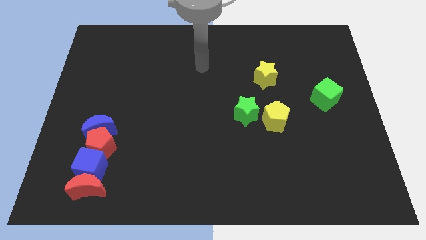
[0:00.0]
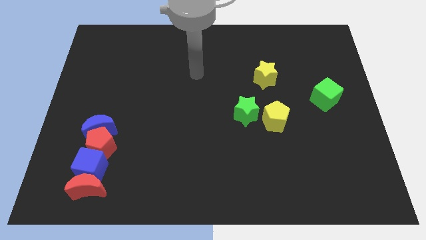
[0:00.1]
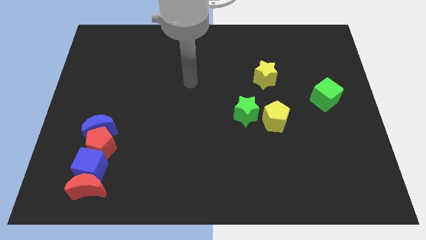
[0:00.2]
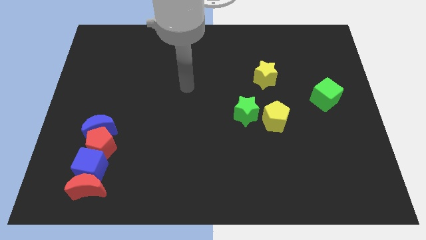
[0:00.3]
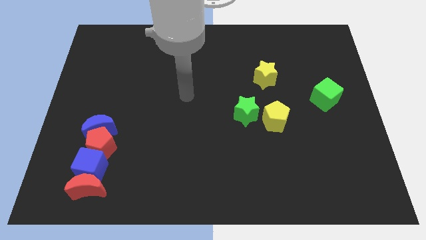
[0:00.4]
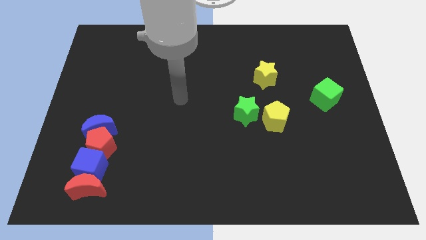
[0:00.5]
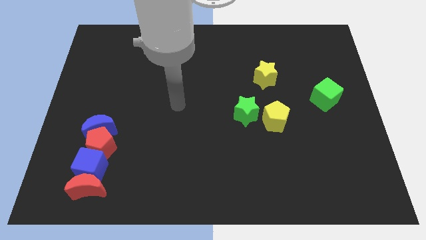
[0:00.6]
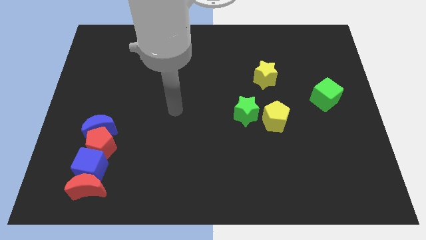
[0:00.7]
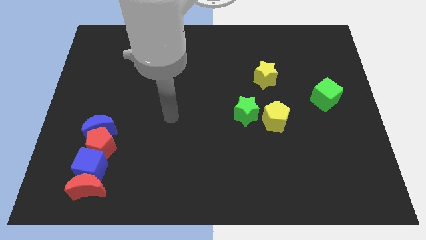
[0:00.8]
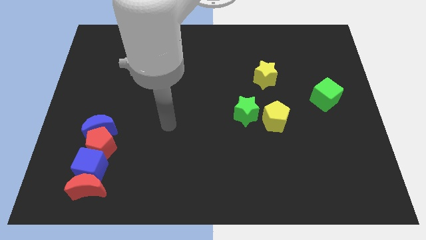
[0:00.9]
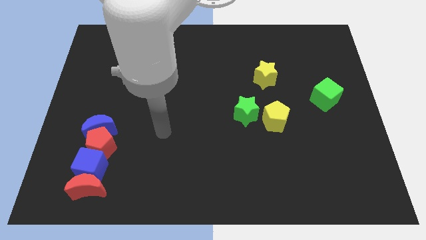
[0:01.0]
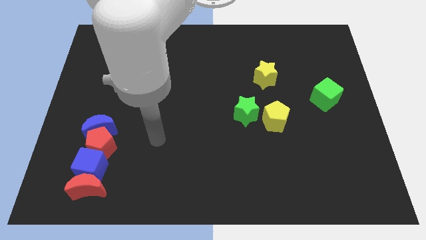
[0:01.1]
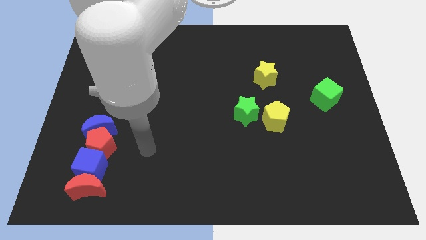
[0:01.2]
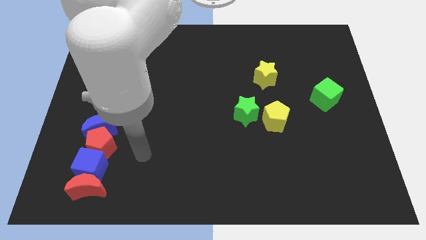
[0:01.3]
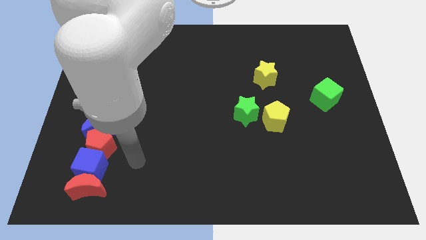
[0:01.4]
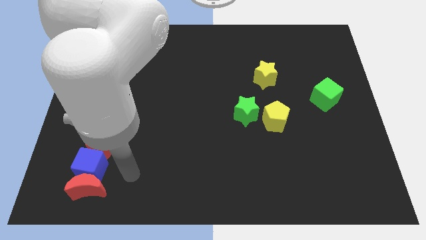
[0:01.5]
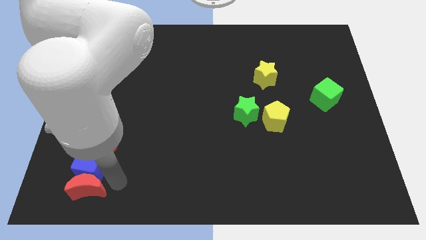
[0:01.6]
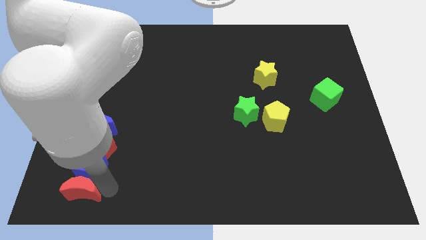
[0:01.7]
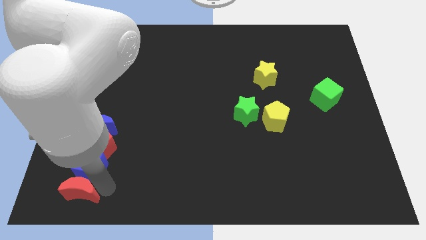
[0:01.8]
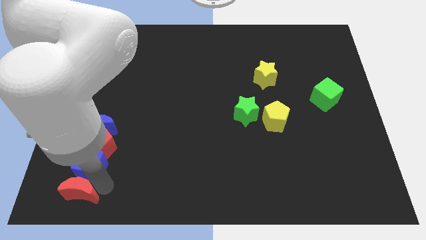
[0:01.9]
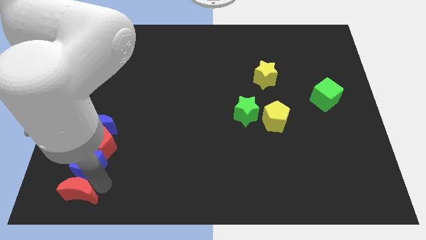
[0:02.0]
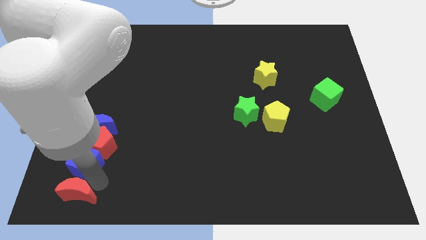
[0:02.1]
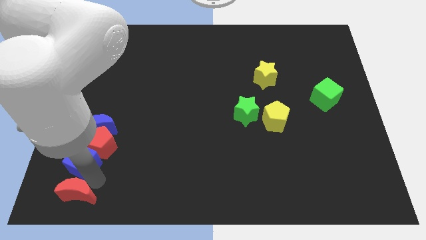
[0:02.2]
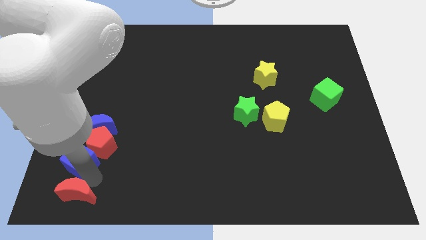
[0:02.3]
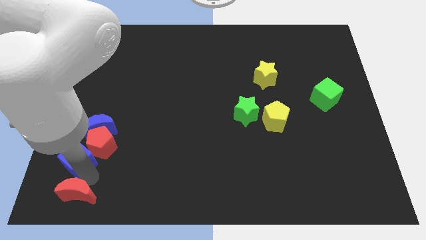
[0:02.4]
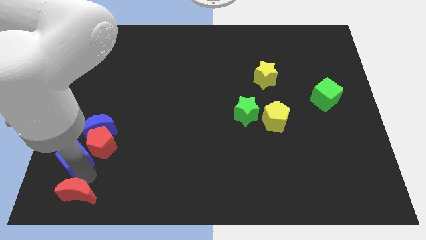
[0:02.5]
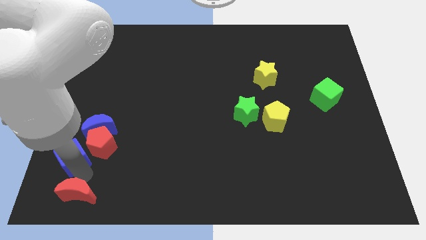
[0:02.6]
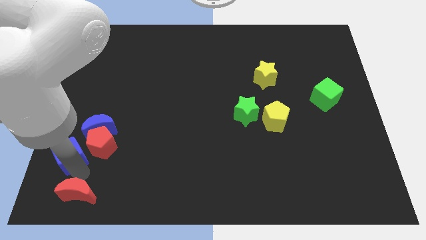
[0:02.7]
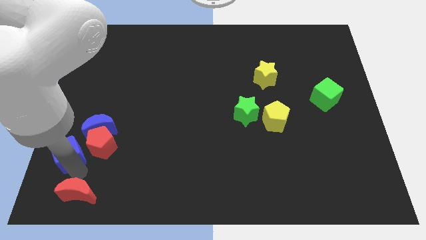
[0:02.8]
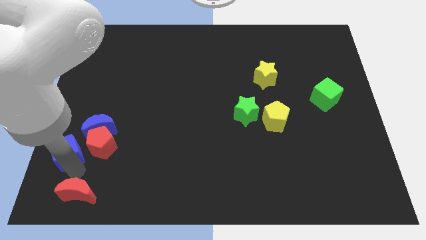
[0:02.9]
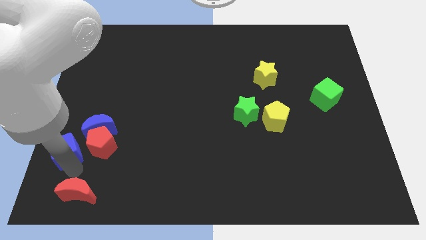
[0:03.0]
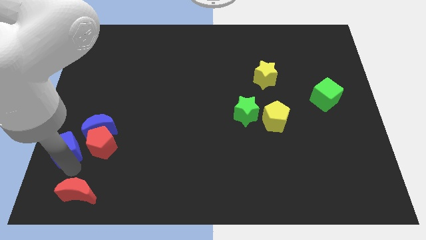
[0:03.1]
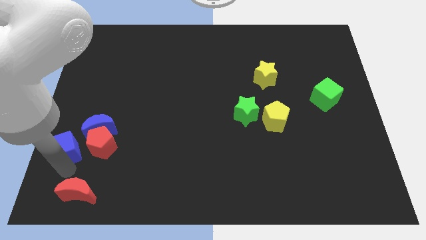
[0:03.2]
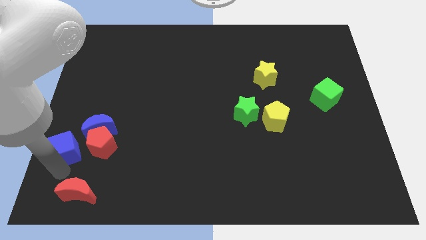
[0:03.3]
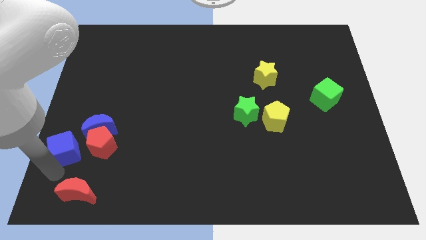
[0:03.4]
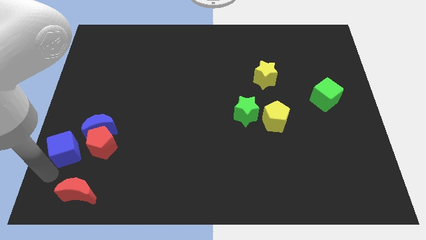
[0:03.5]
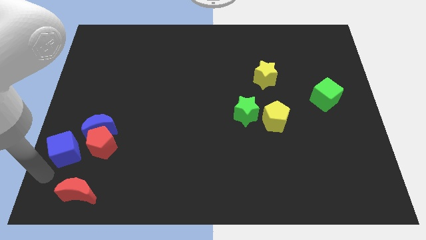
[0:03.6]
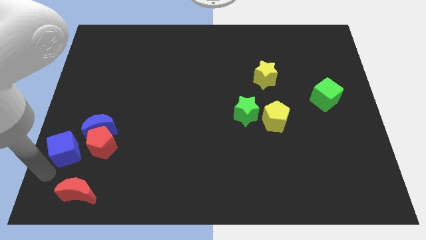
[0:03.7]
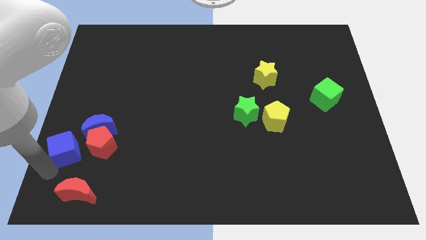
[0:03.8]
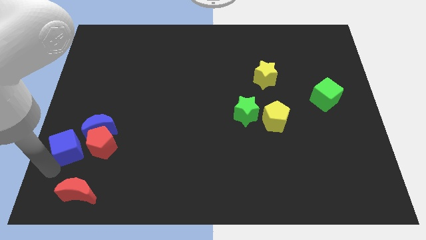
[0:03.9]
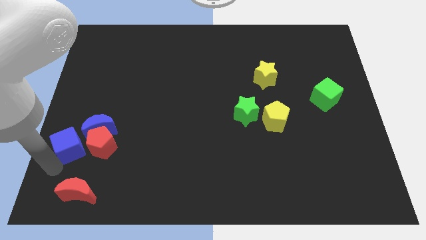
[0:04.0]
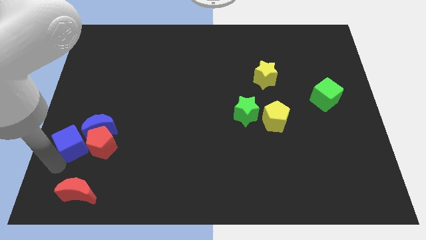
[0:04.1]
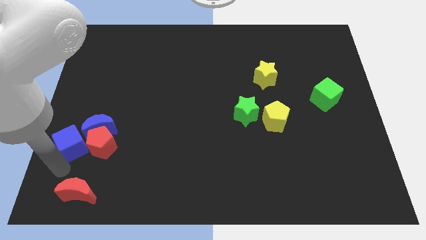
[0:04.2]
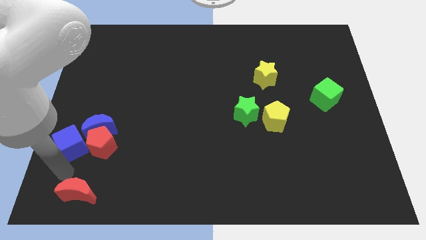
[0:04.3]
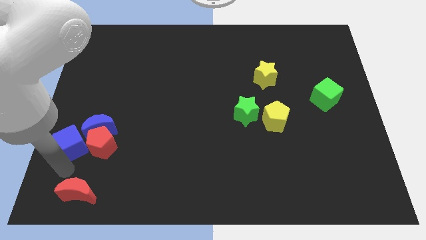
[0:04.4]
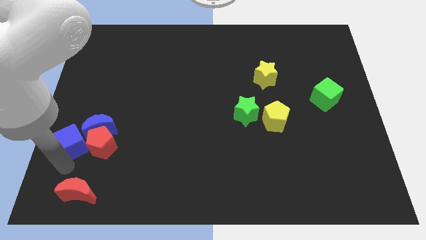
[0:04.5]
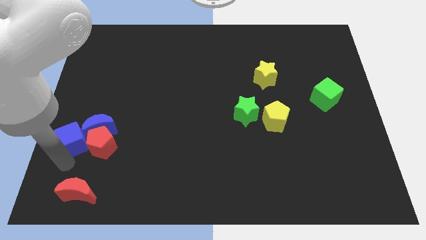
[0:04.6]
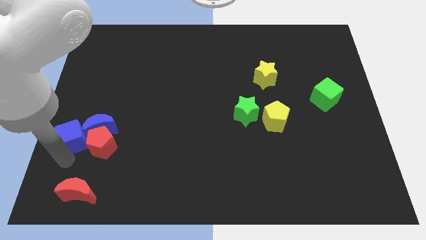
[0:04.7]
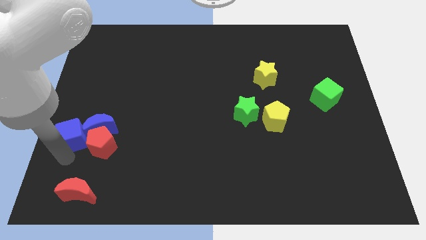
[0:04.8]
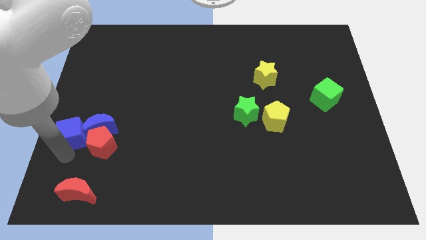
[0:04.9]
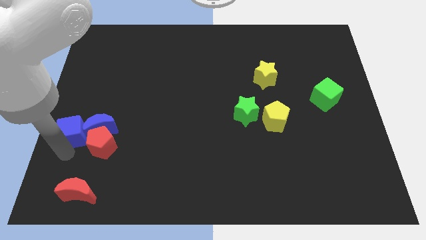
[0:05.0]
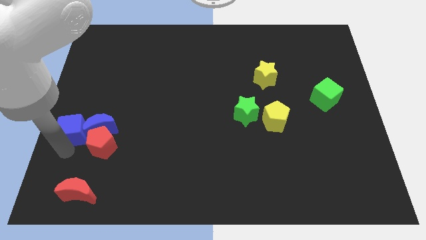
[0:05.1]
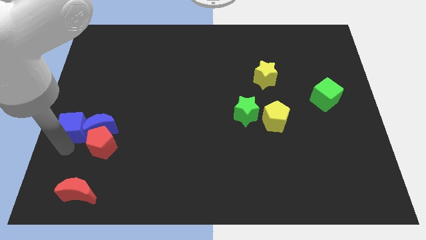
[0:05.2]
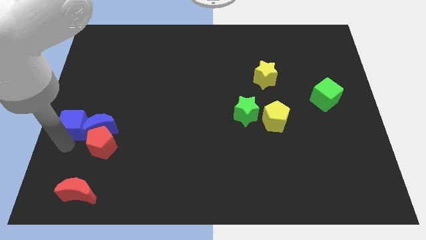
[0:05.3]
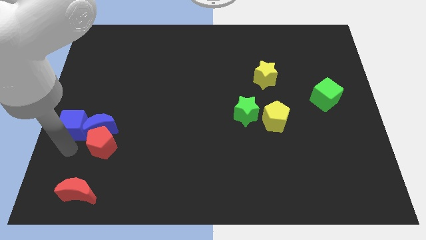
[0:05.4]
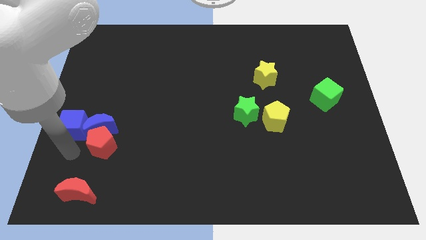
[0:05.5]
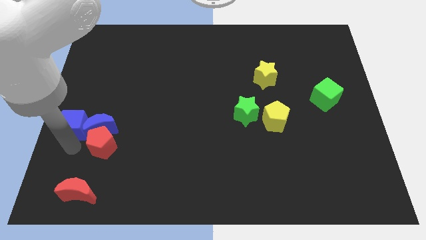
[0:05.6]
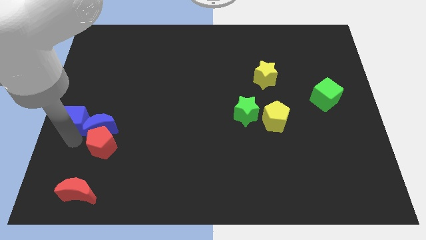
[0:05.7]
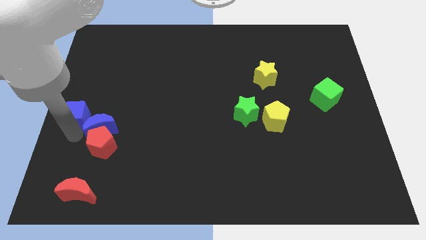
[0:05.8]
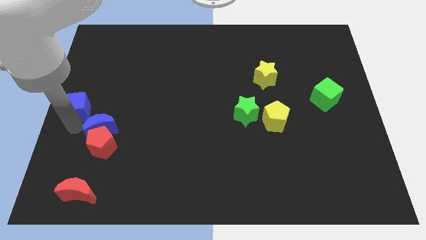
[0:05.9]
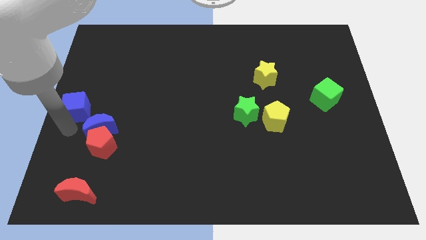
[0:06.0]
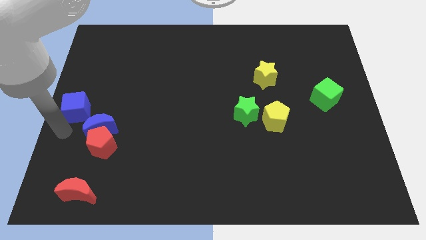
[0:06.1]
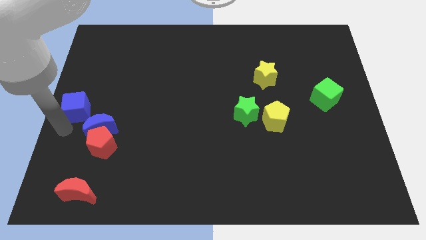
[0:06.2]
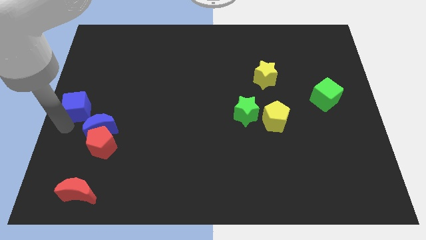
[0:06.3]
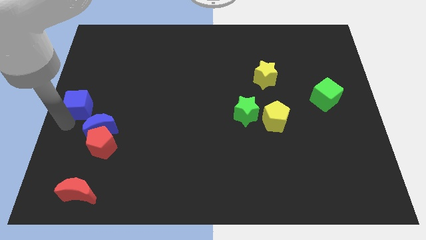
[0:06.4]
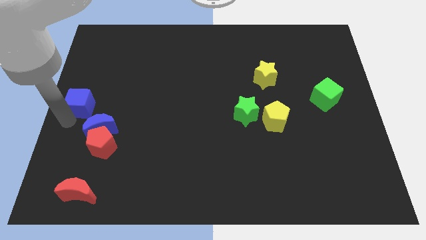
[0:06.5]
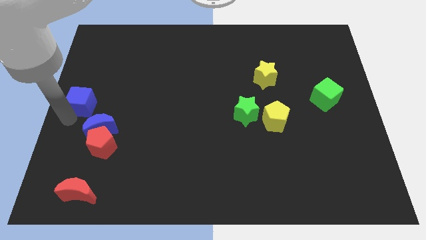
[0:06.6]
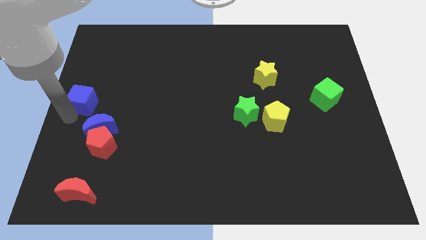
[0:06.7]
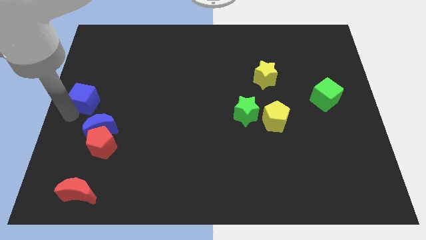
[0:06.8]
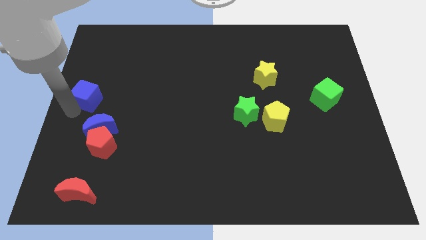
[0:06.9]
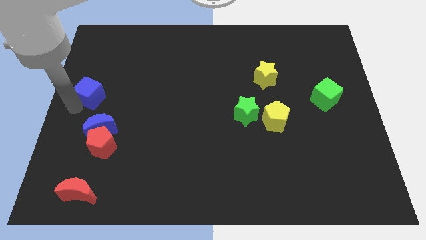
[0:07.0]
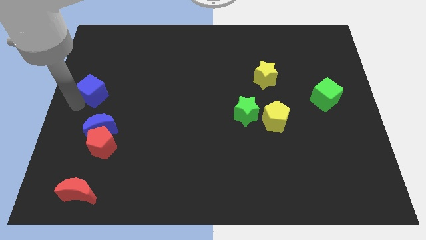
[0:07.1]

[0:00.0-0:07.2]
slide the blue cube up

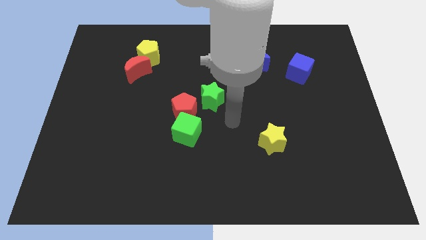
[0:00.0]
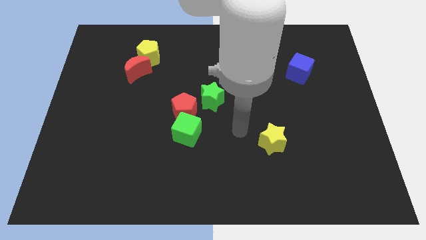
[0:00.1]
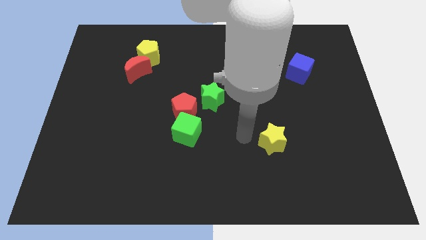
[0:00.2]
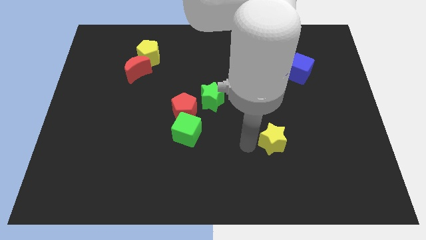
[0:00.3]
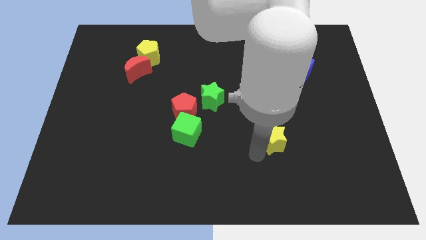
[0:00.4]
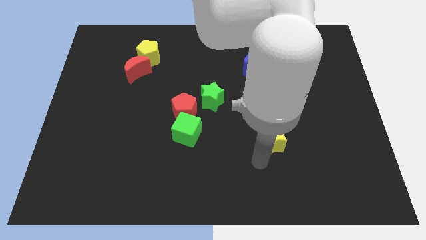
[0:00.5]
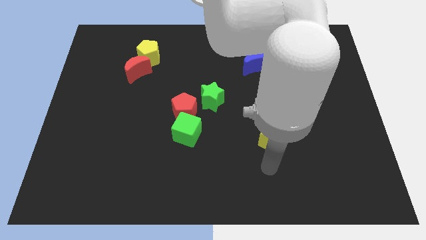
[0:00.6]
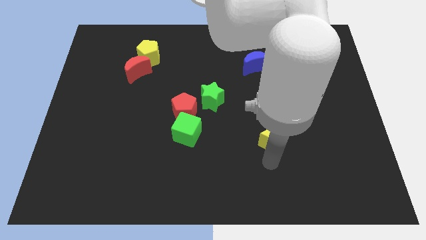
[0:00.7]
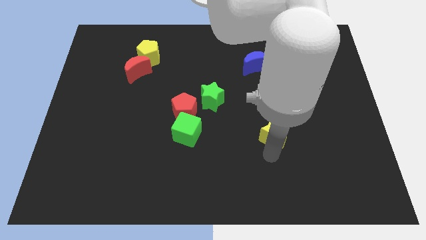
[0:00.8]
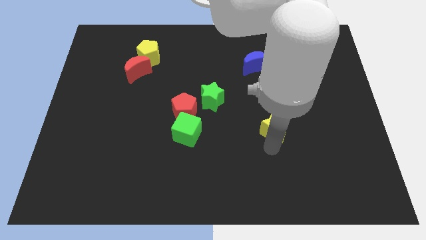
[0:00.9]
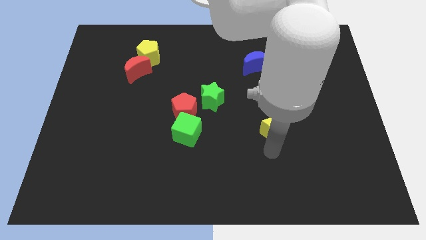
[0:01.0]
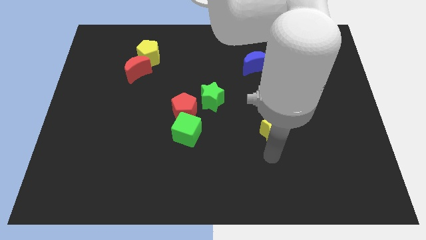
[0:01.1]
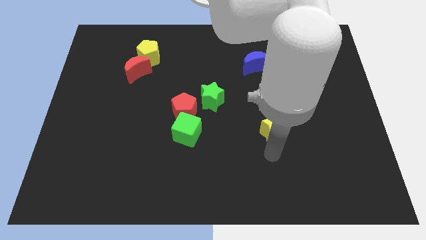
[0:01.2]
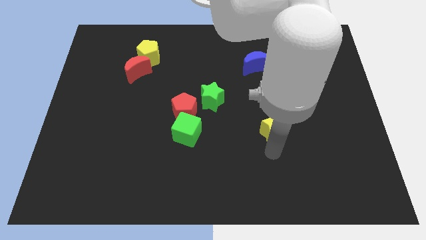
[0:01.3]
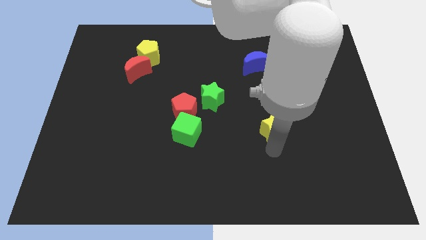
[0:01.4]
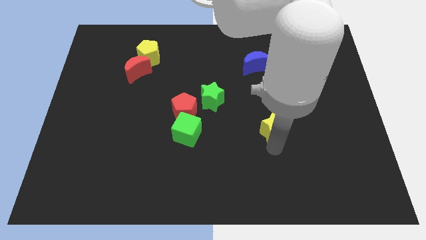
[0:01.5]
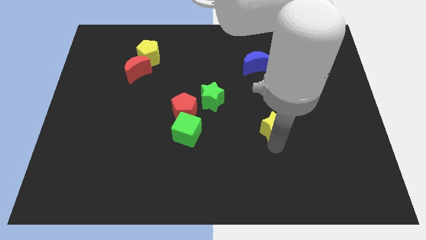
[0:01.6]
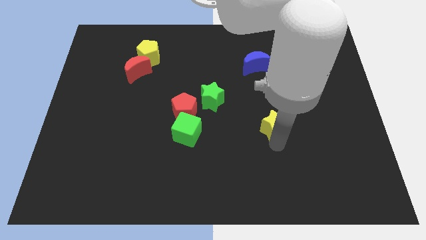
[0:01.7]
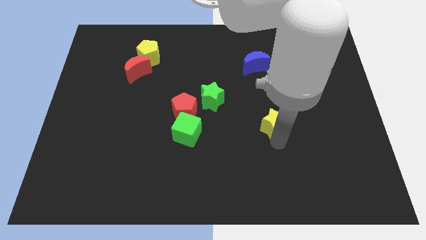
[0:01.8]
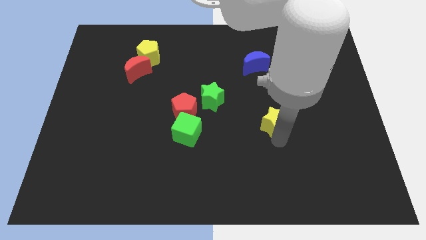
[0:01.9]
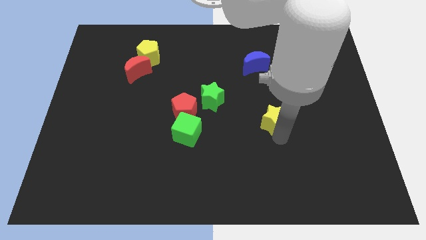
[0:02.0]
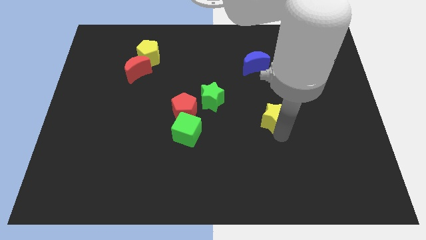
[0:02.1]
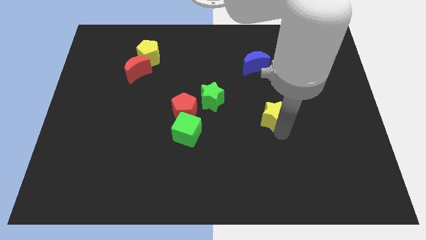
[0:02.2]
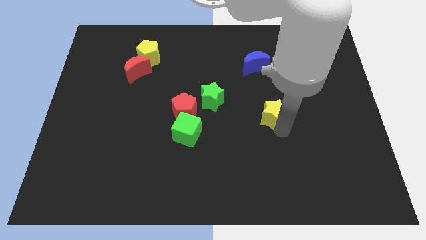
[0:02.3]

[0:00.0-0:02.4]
move the yellow star a bit up
